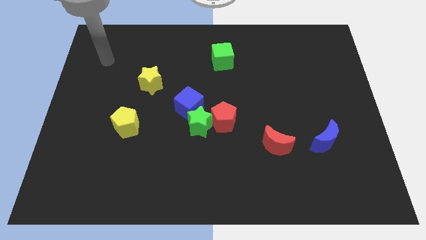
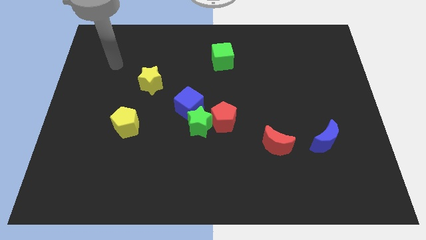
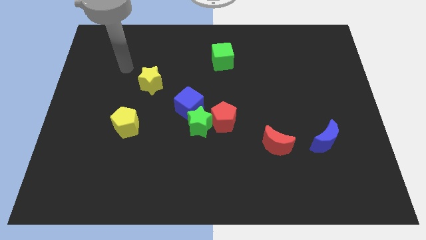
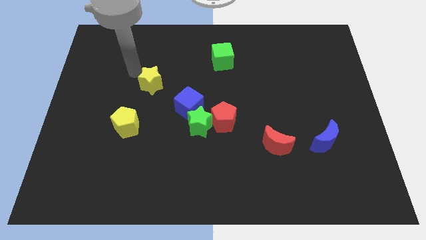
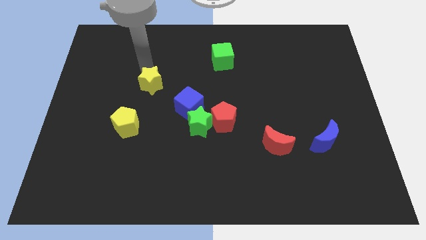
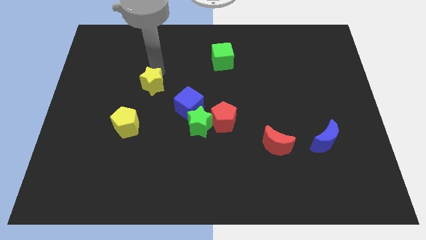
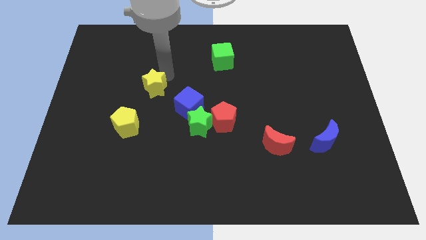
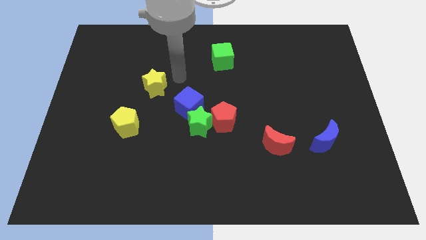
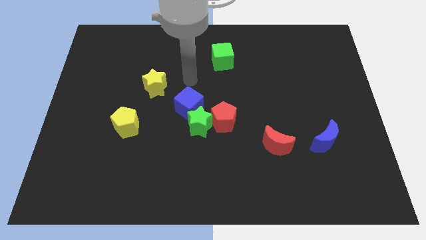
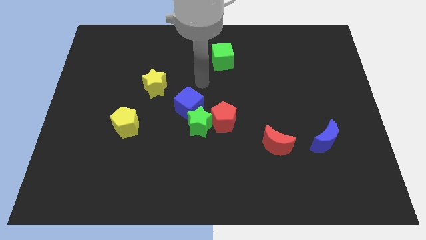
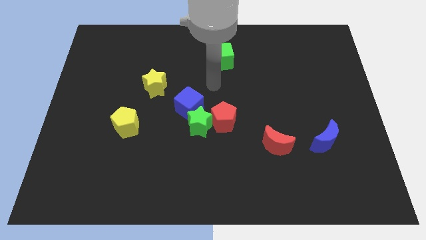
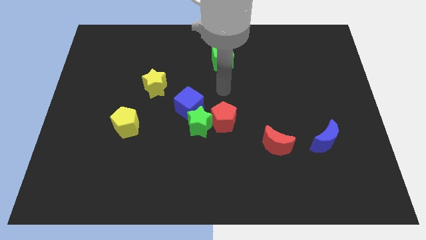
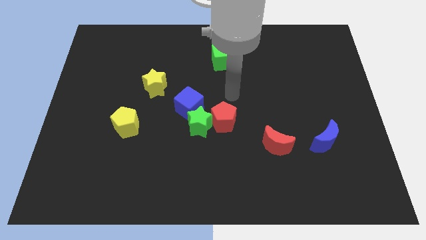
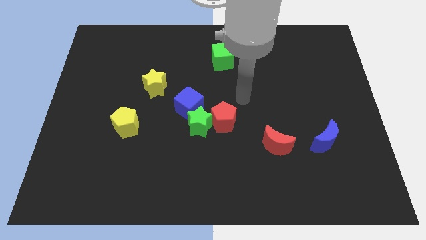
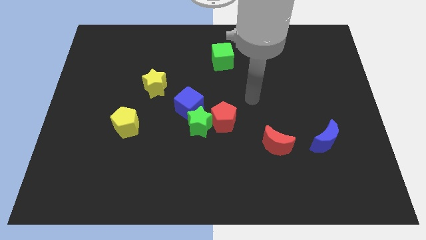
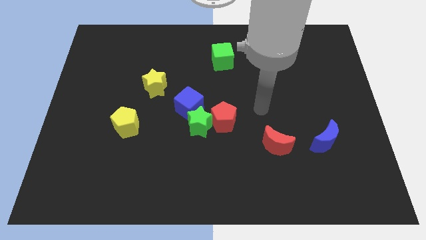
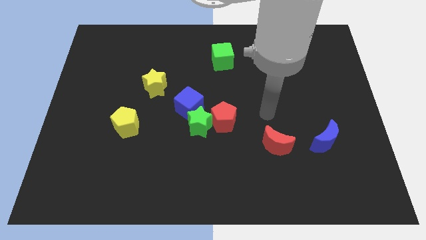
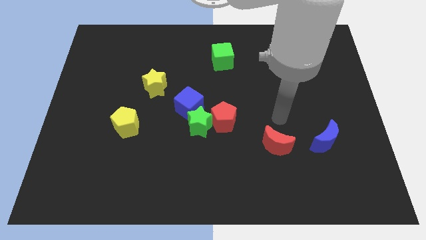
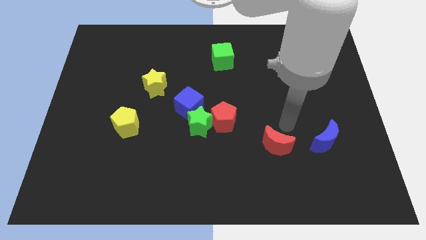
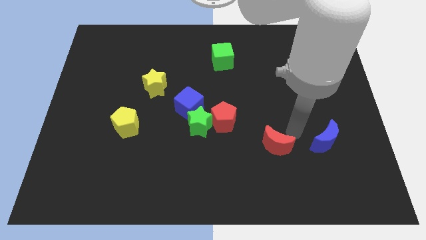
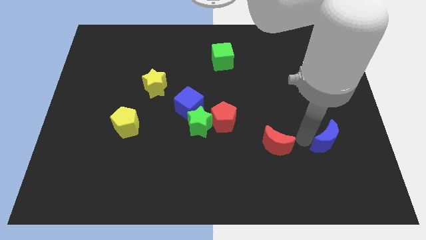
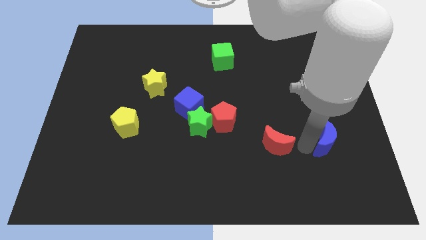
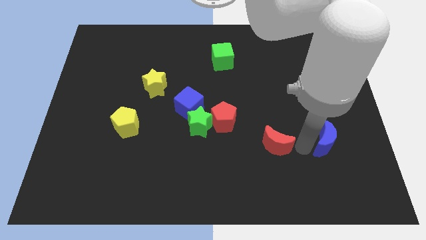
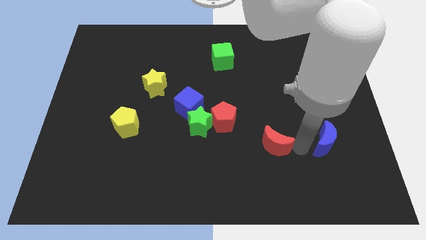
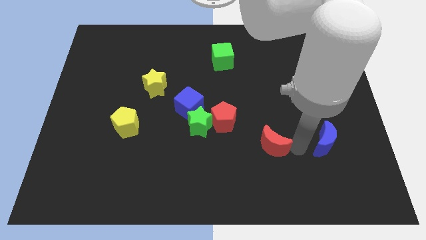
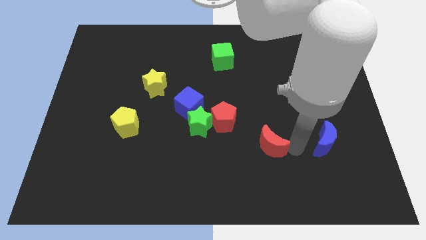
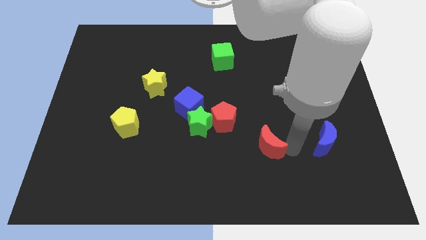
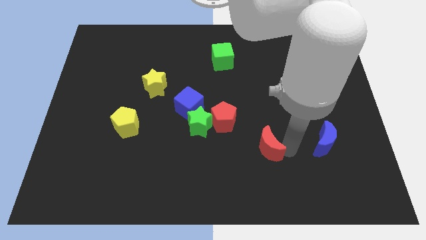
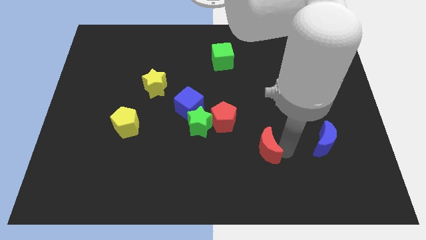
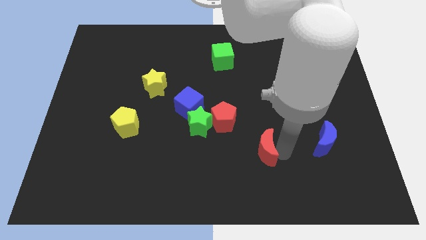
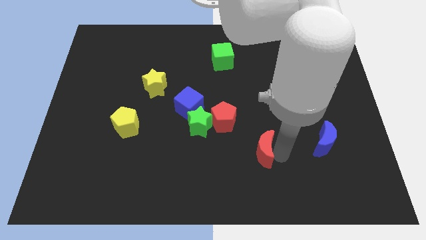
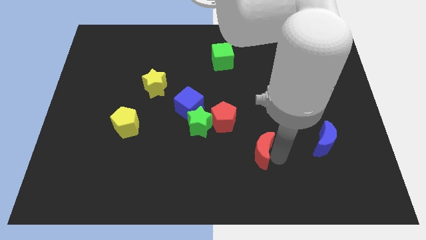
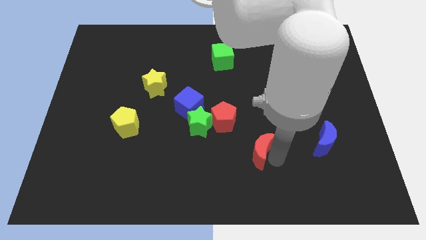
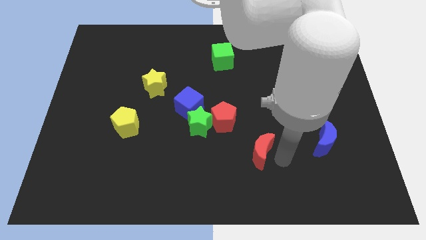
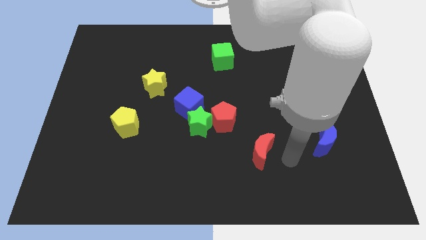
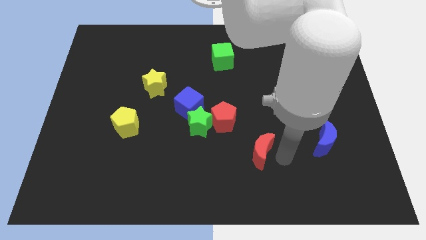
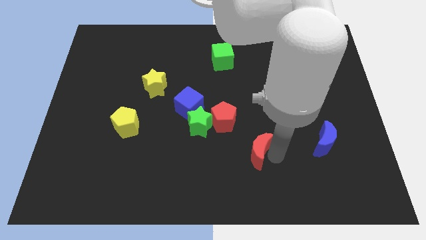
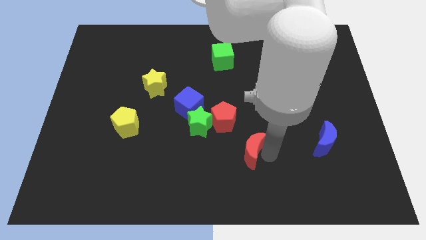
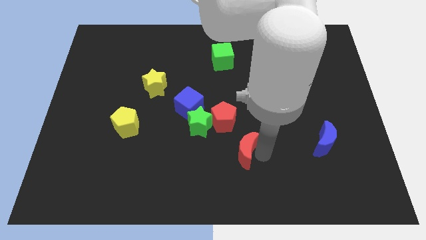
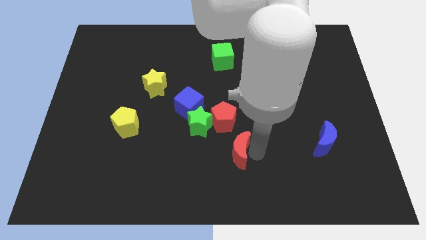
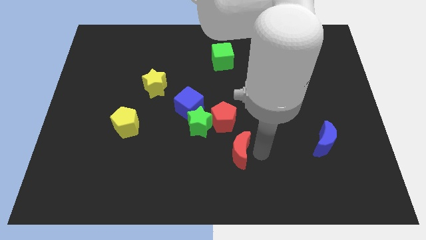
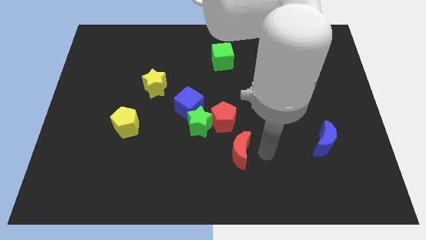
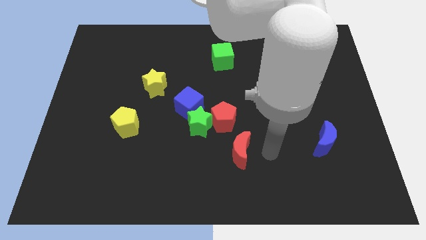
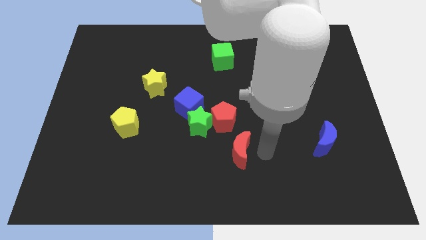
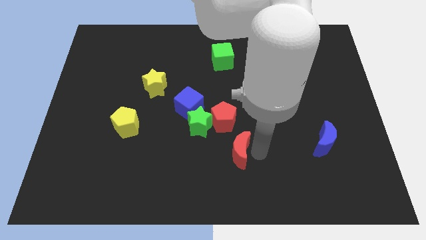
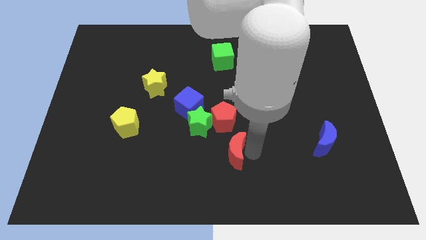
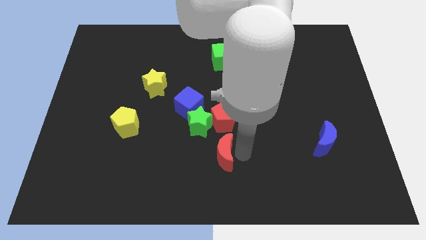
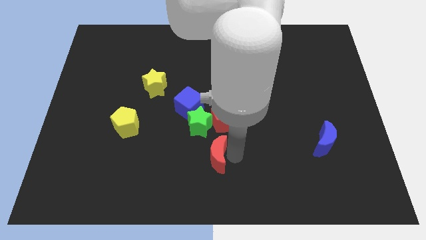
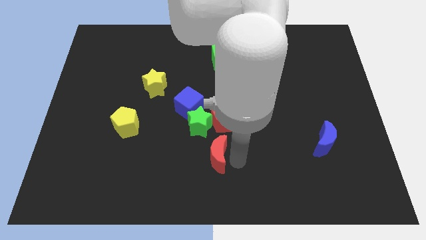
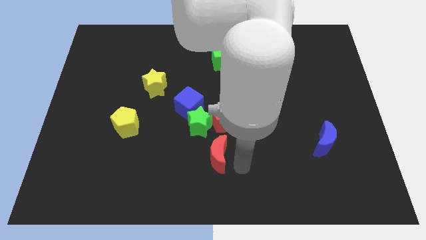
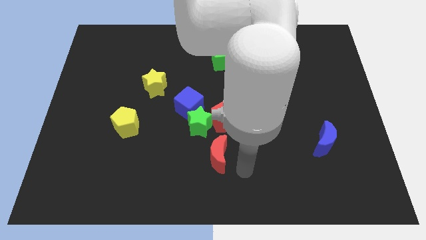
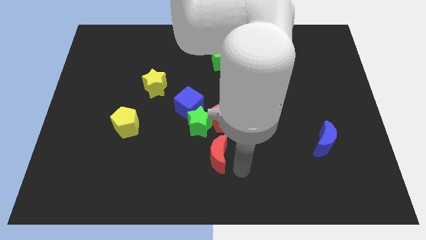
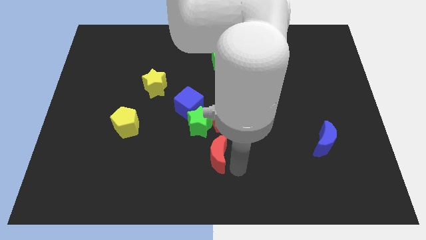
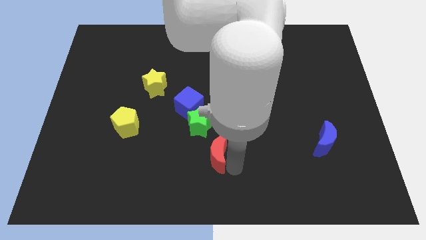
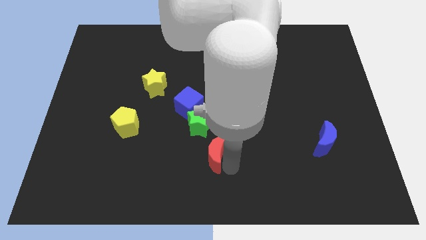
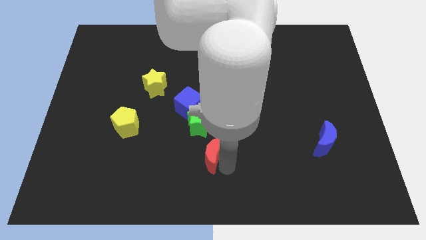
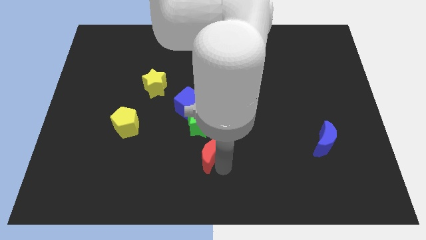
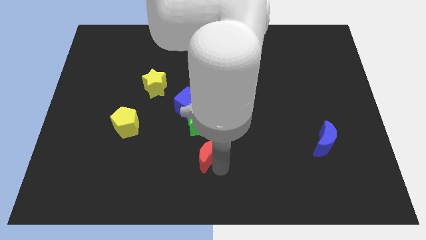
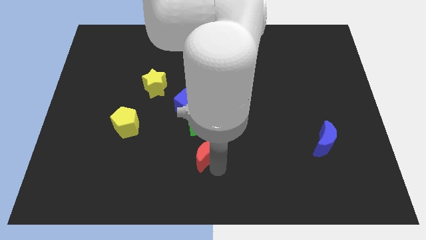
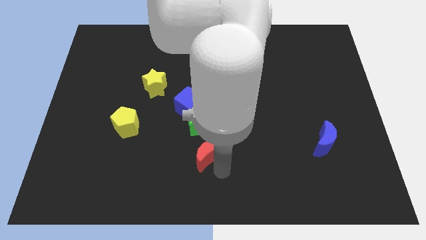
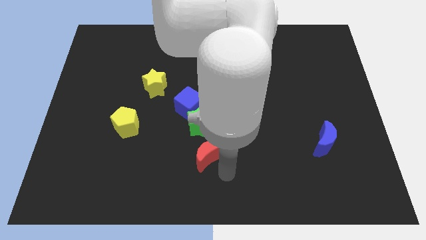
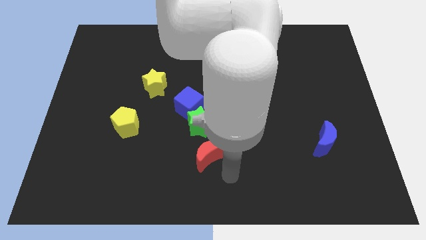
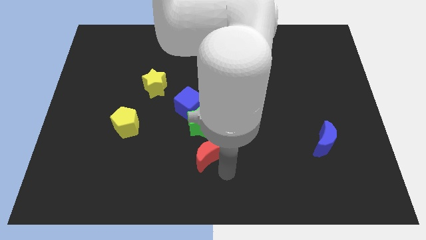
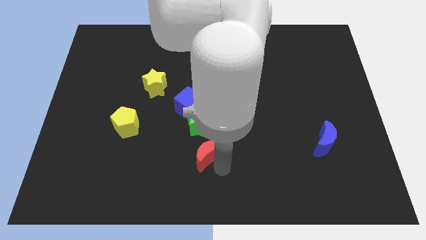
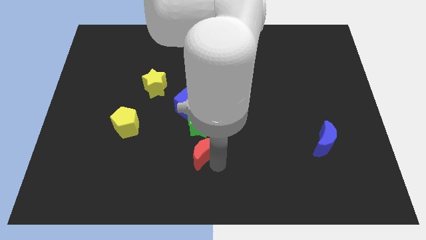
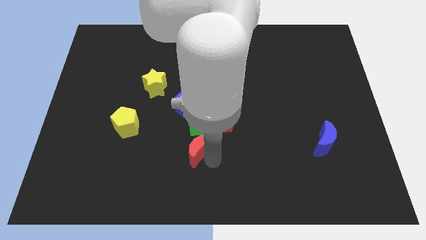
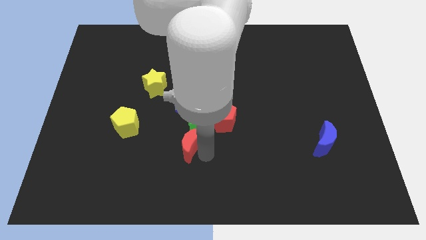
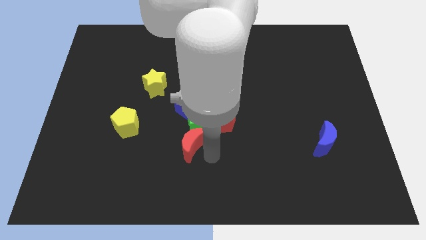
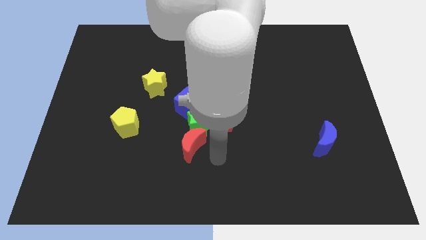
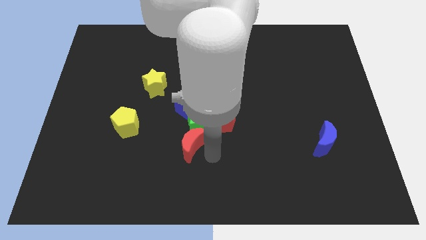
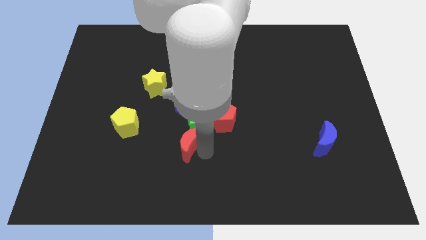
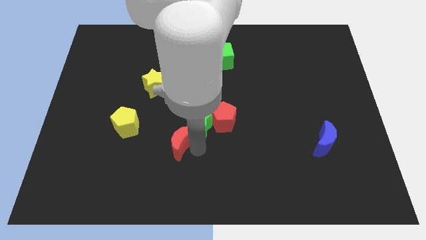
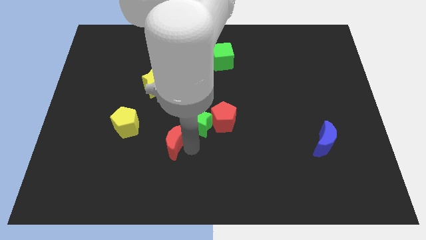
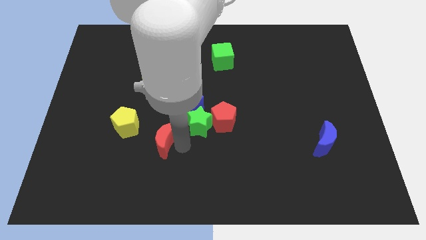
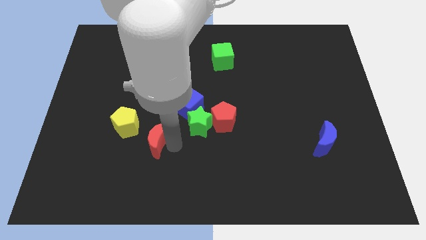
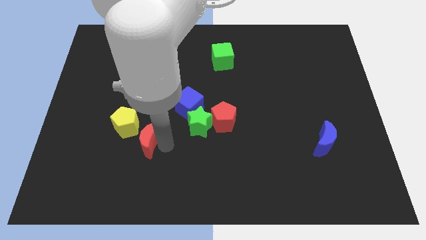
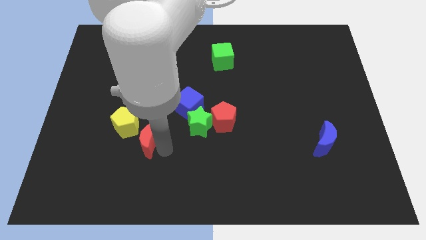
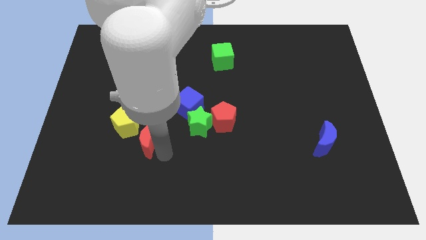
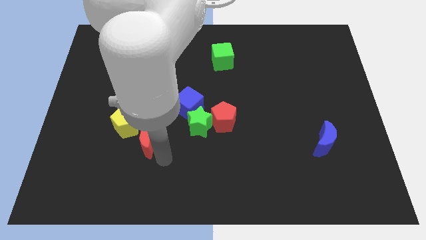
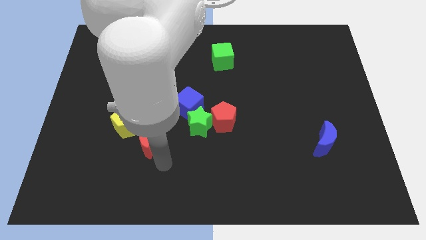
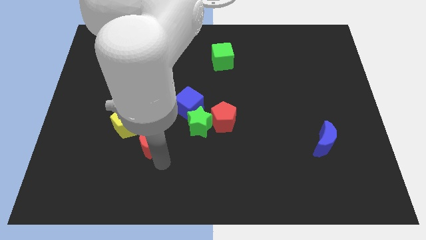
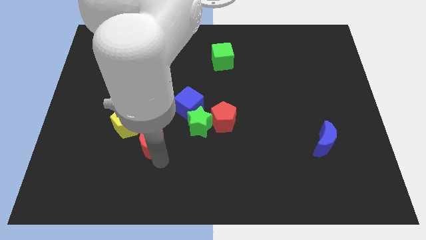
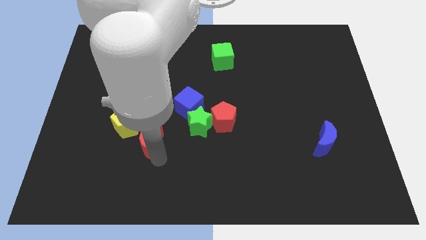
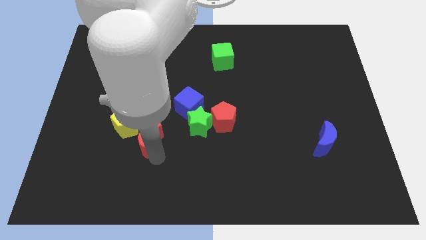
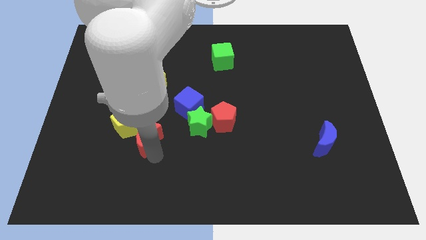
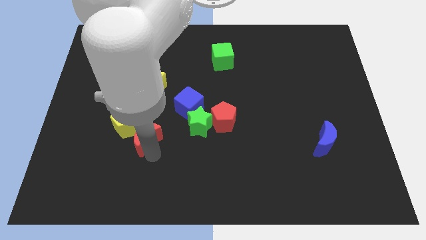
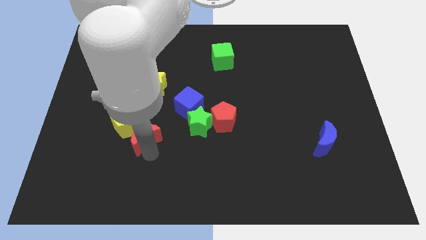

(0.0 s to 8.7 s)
put the red moon to the yellow pentagon
